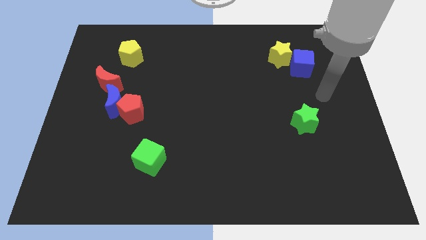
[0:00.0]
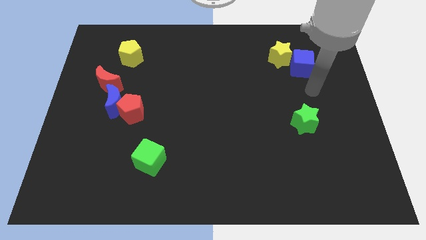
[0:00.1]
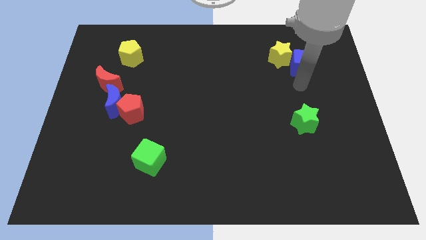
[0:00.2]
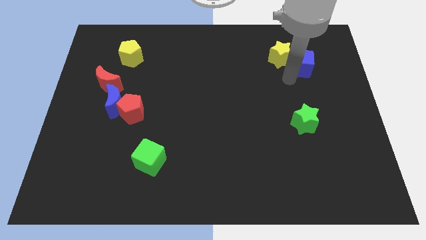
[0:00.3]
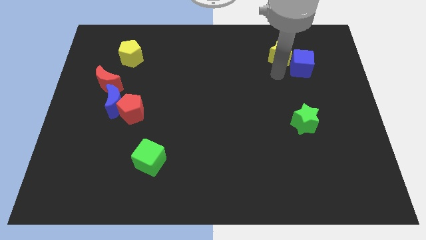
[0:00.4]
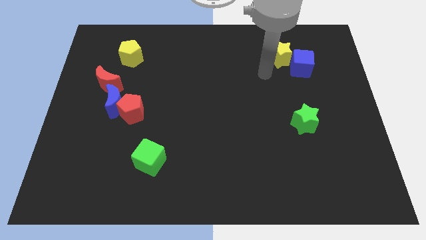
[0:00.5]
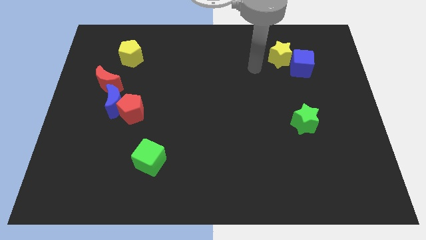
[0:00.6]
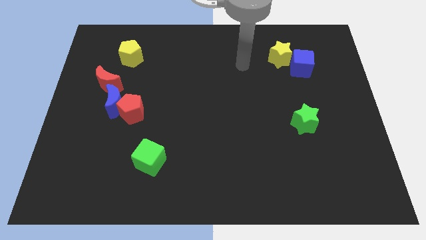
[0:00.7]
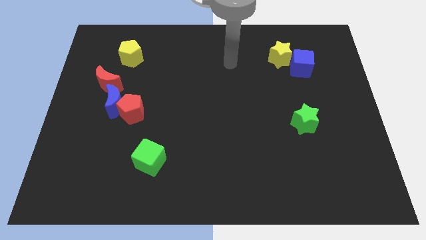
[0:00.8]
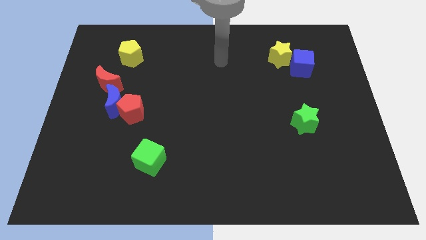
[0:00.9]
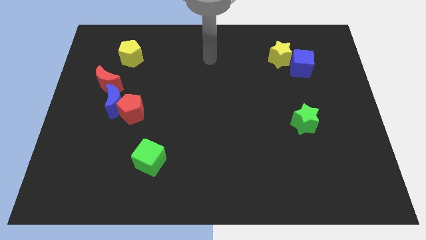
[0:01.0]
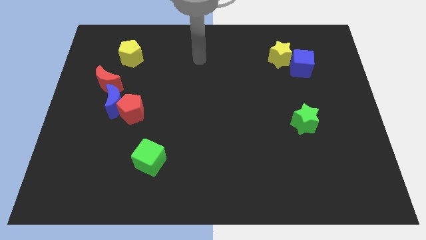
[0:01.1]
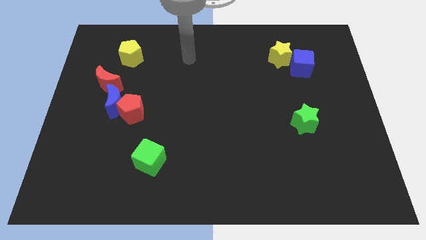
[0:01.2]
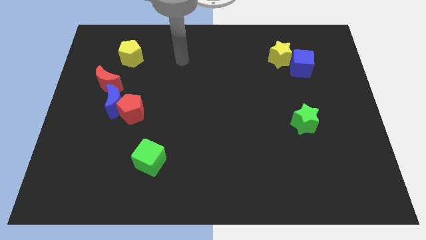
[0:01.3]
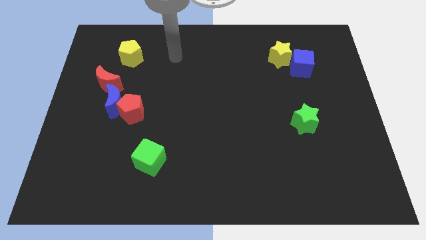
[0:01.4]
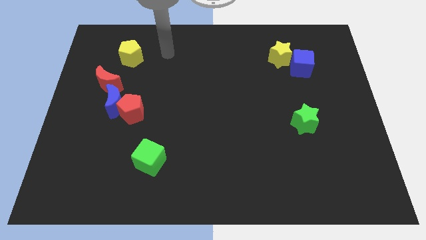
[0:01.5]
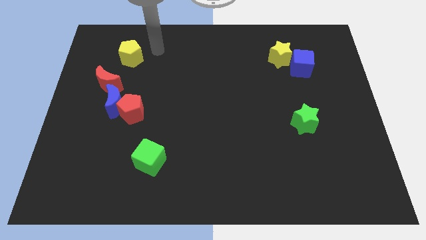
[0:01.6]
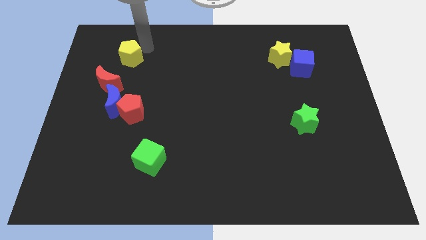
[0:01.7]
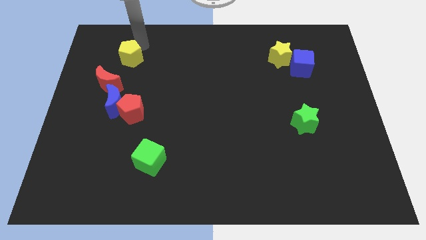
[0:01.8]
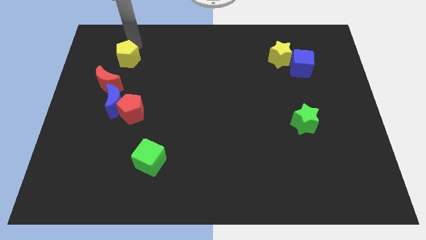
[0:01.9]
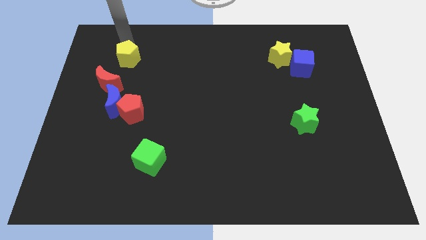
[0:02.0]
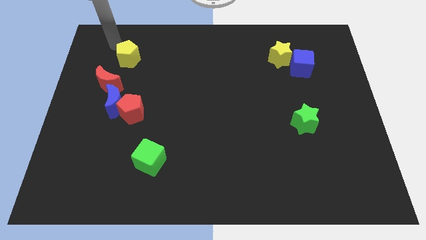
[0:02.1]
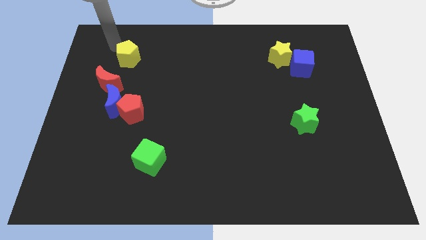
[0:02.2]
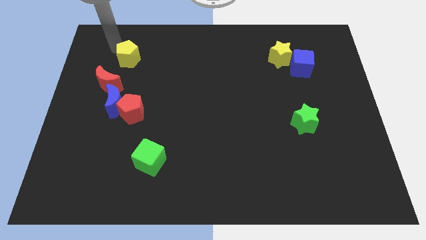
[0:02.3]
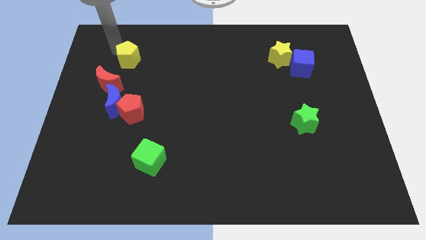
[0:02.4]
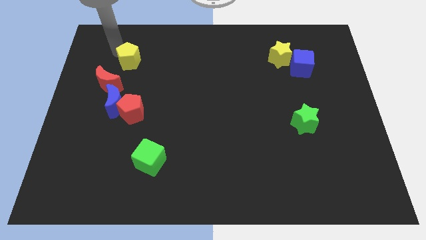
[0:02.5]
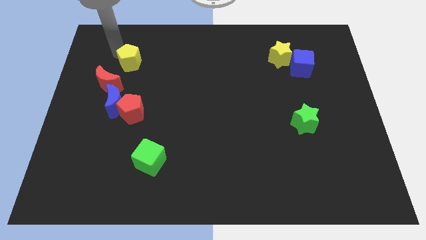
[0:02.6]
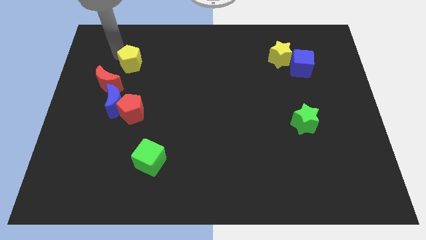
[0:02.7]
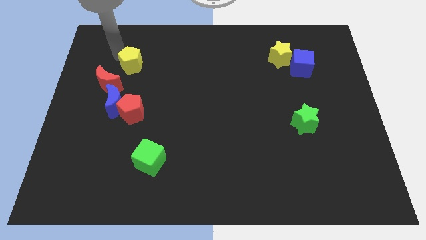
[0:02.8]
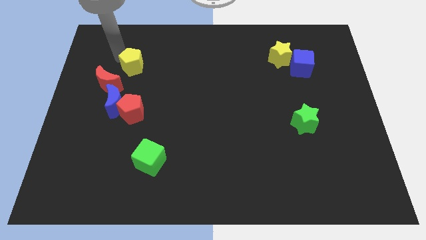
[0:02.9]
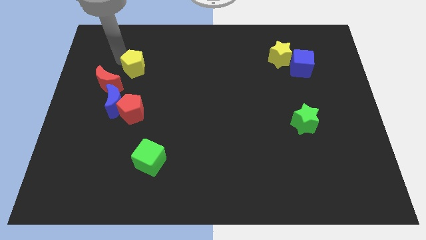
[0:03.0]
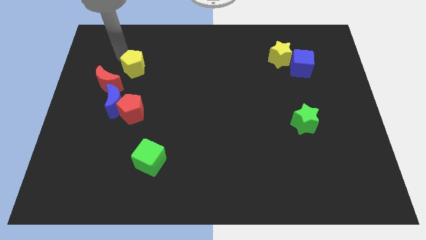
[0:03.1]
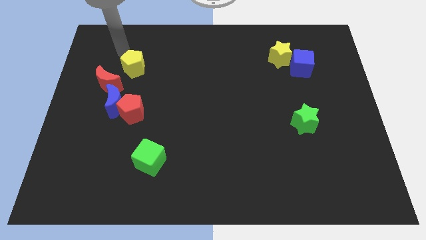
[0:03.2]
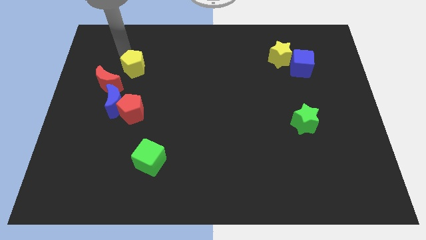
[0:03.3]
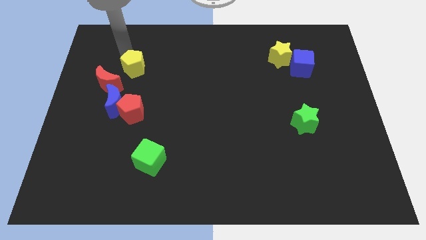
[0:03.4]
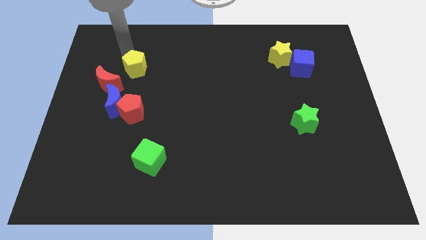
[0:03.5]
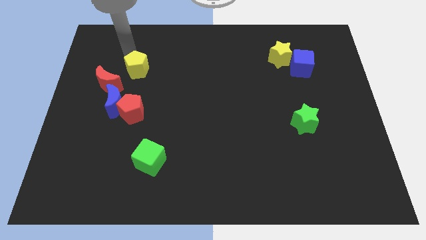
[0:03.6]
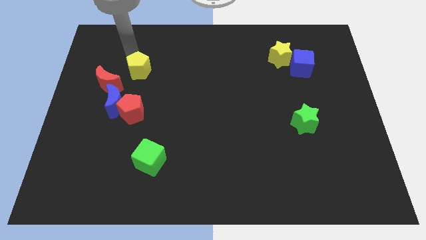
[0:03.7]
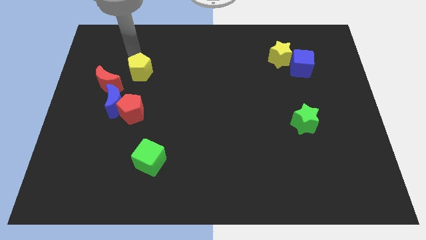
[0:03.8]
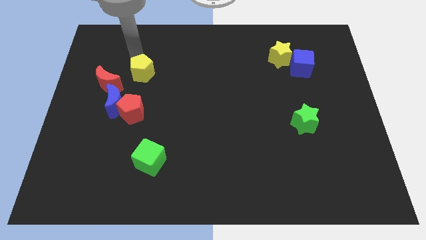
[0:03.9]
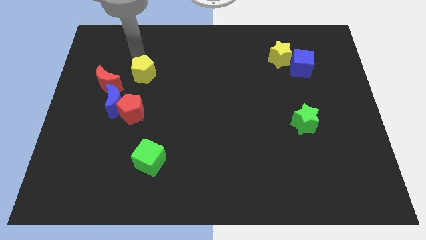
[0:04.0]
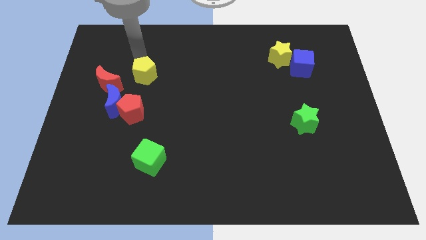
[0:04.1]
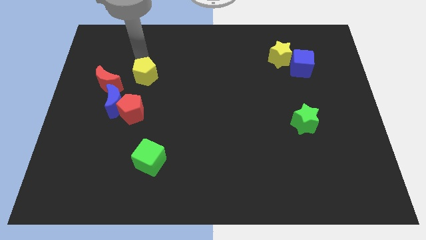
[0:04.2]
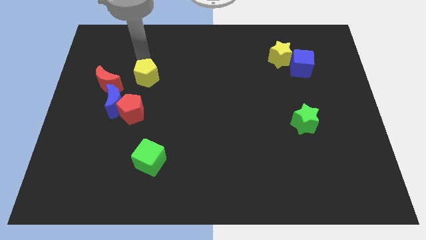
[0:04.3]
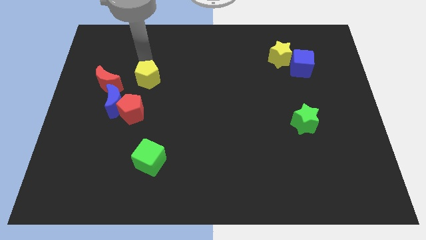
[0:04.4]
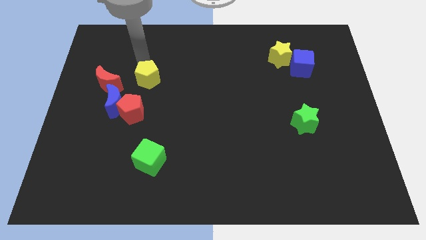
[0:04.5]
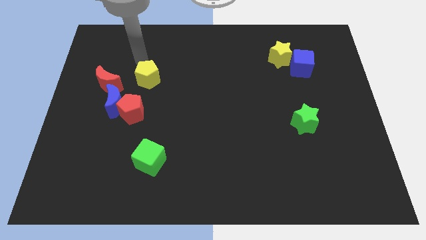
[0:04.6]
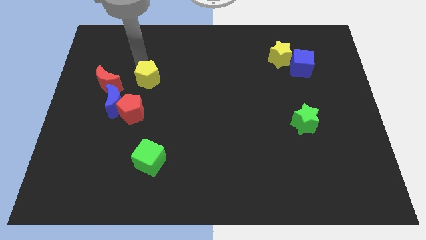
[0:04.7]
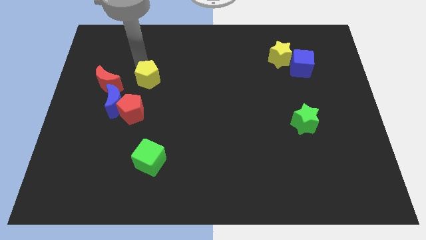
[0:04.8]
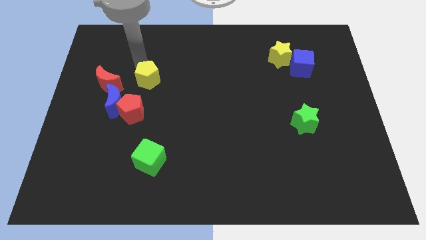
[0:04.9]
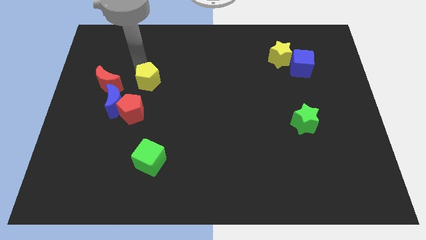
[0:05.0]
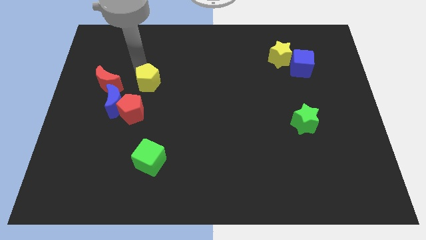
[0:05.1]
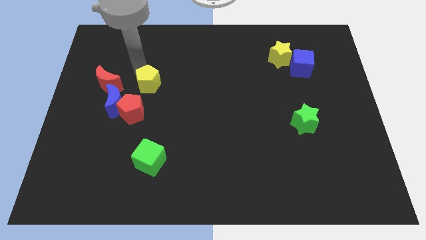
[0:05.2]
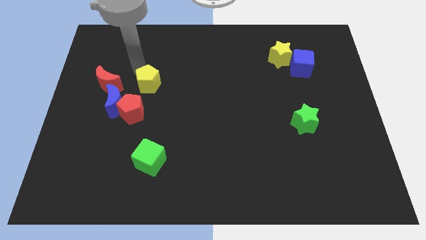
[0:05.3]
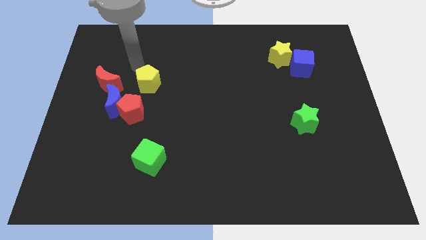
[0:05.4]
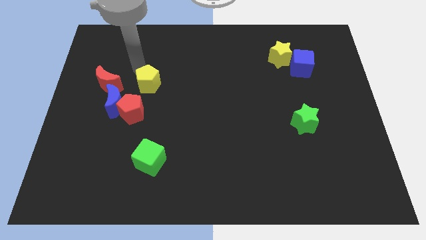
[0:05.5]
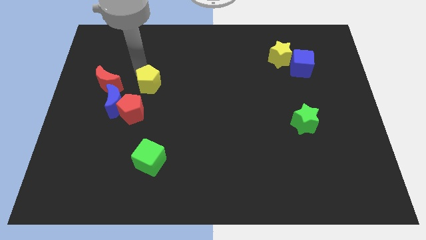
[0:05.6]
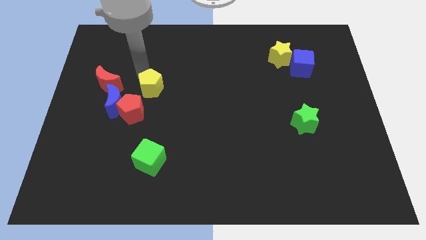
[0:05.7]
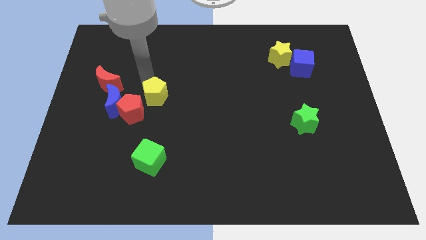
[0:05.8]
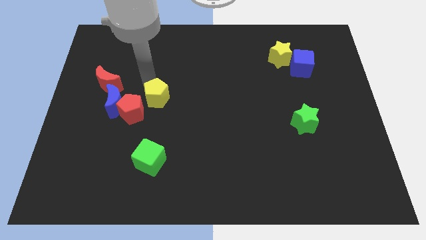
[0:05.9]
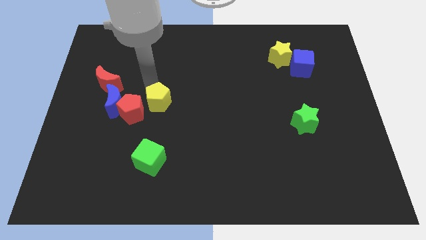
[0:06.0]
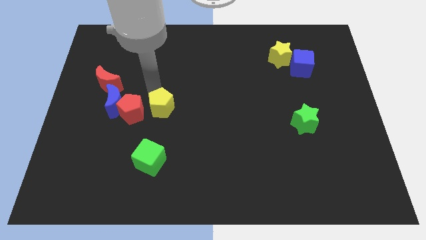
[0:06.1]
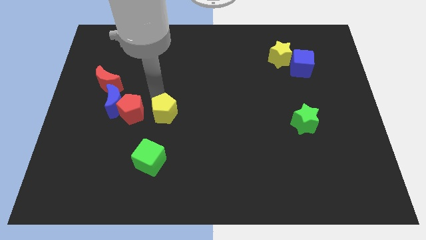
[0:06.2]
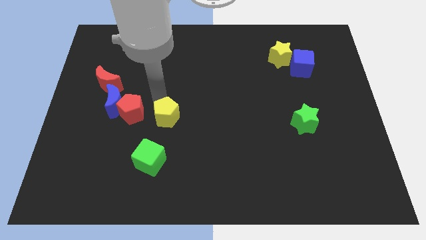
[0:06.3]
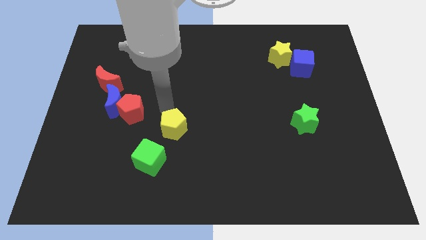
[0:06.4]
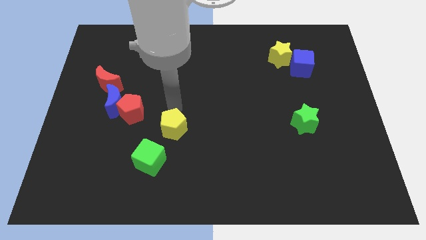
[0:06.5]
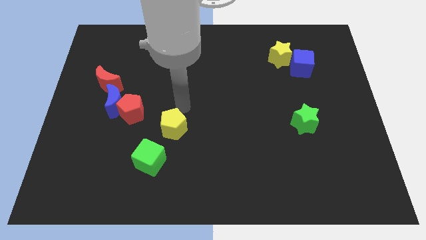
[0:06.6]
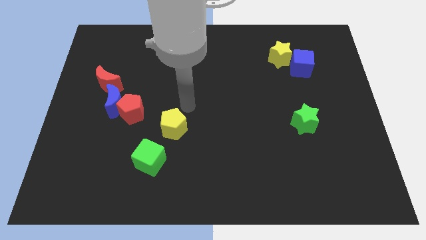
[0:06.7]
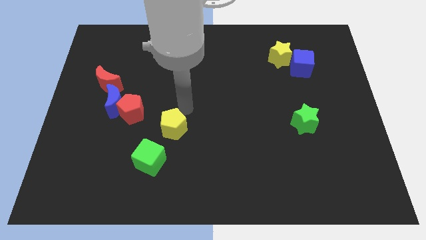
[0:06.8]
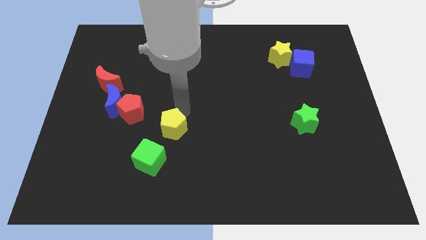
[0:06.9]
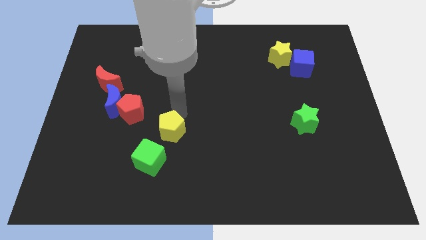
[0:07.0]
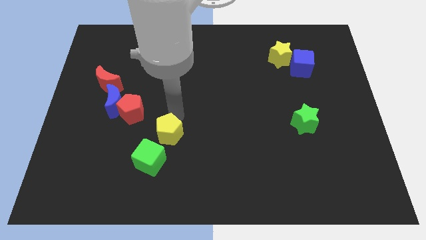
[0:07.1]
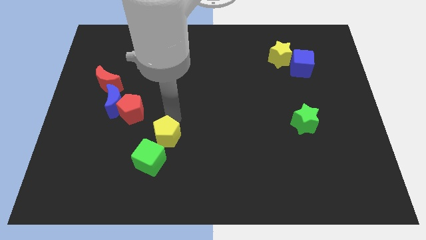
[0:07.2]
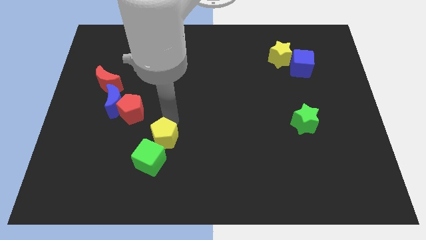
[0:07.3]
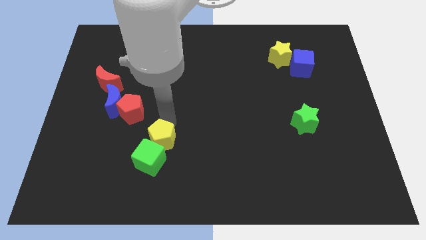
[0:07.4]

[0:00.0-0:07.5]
slide the yellow pentagon towards the green cube
